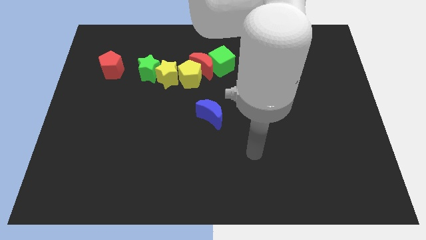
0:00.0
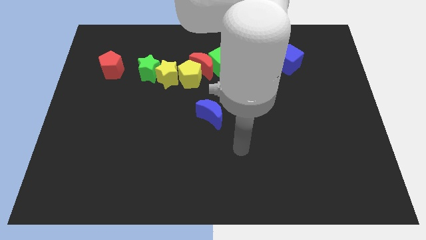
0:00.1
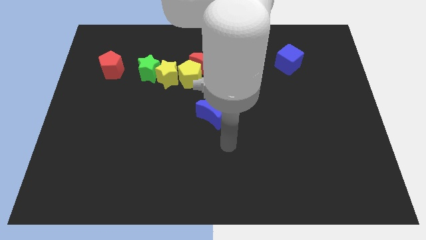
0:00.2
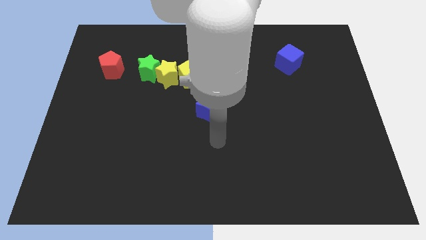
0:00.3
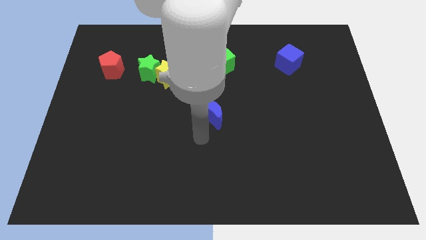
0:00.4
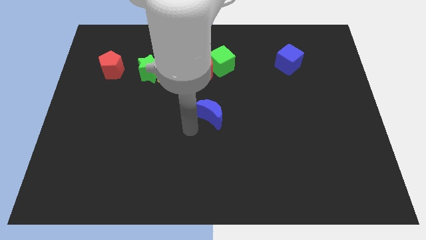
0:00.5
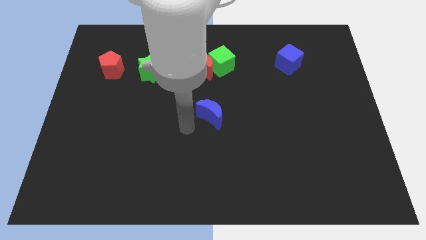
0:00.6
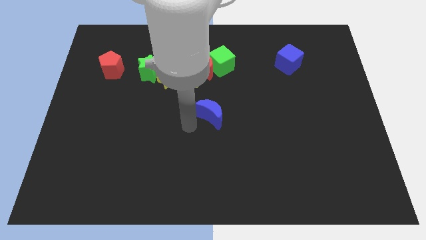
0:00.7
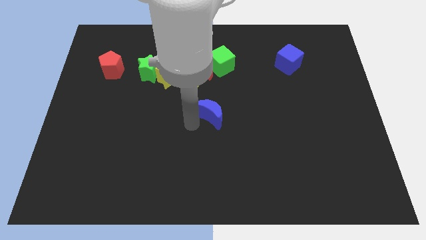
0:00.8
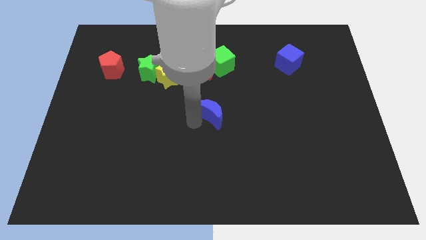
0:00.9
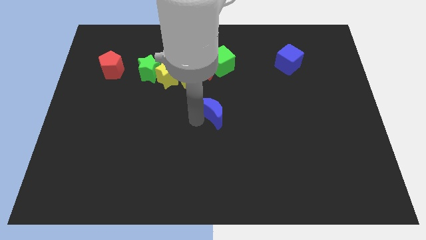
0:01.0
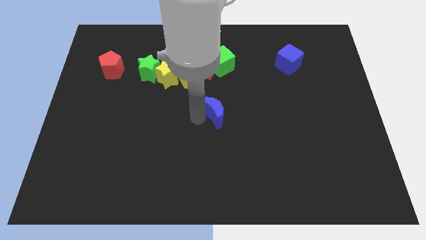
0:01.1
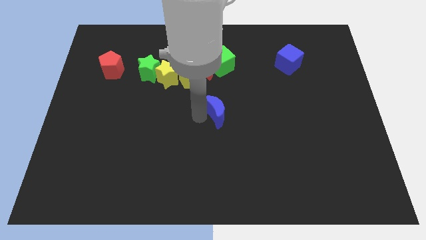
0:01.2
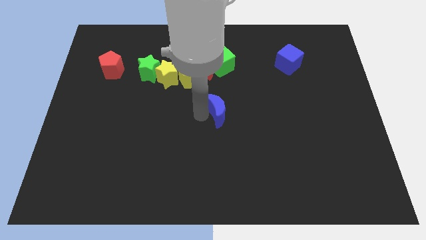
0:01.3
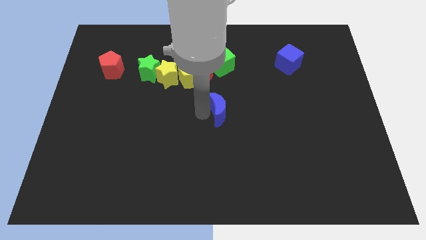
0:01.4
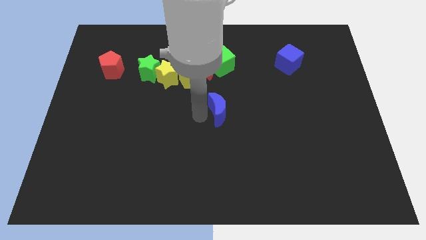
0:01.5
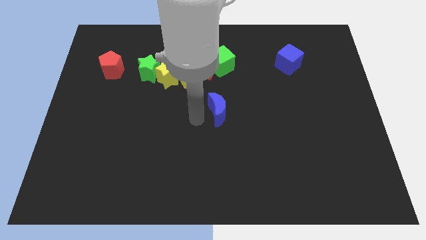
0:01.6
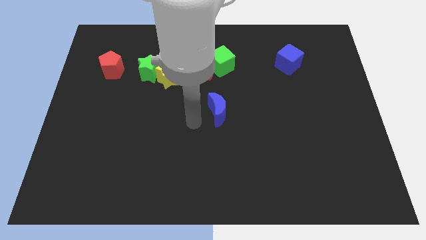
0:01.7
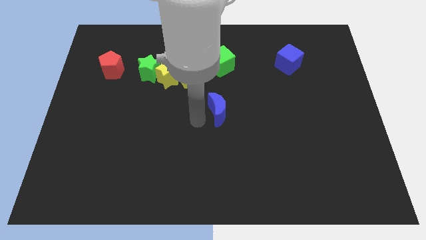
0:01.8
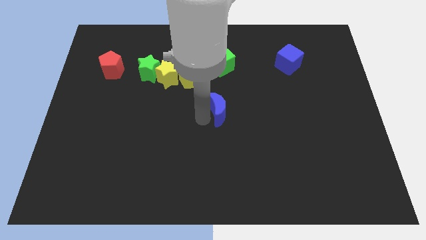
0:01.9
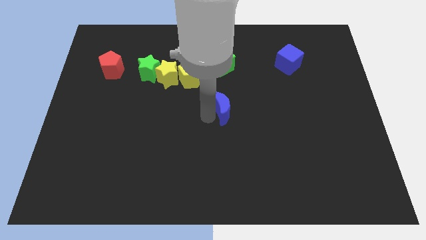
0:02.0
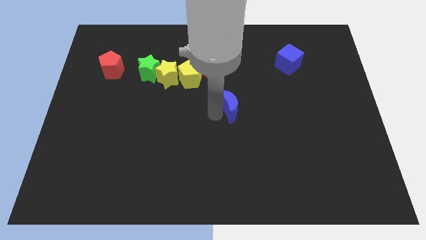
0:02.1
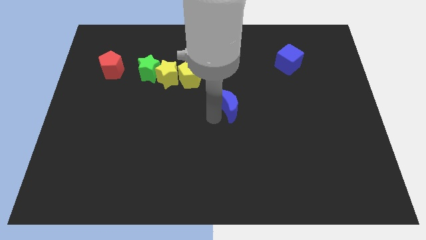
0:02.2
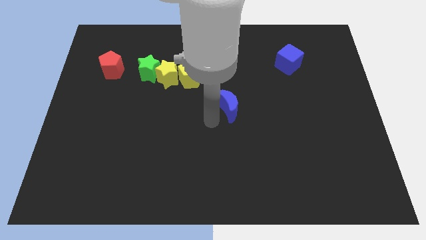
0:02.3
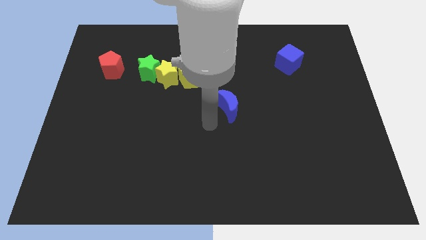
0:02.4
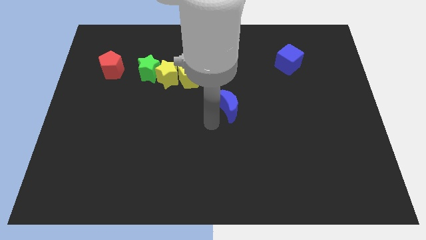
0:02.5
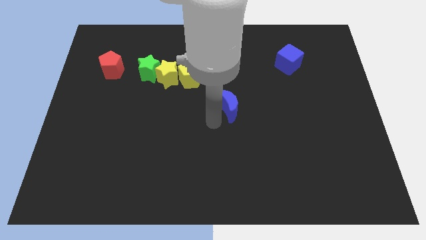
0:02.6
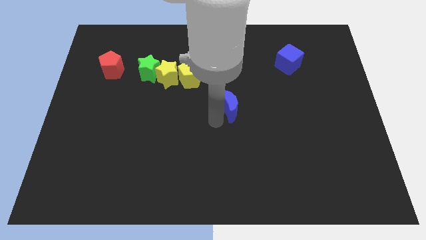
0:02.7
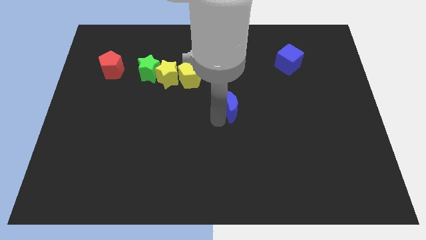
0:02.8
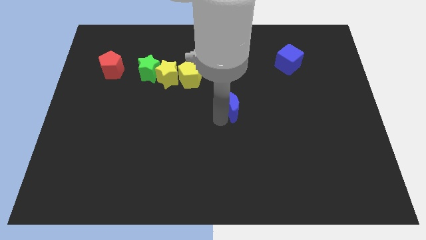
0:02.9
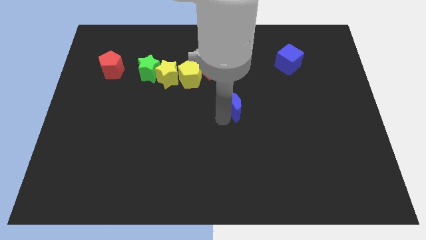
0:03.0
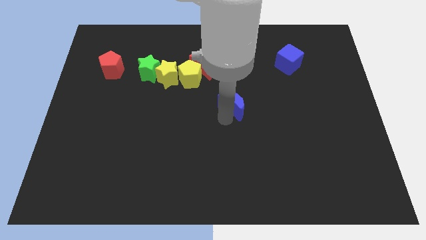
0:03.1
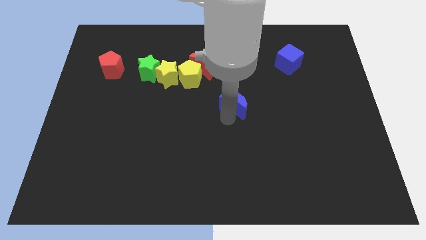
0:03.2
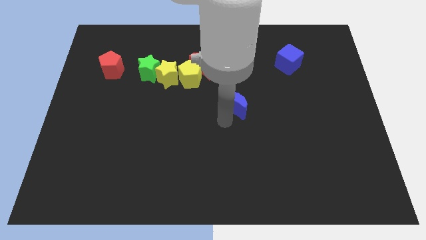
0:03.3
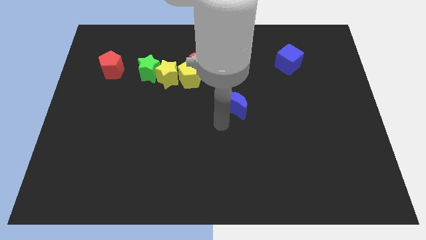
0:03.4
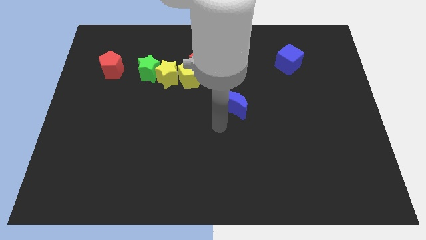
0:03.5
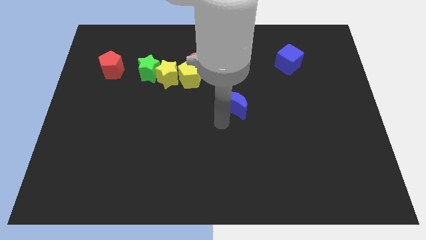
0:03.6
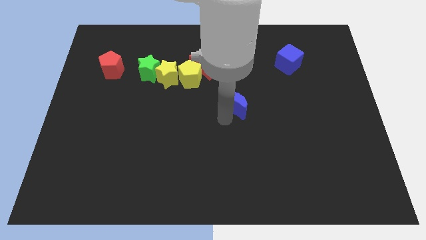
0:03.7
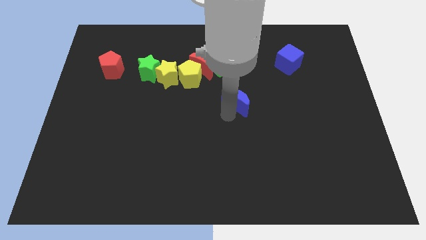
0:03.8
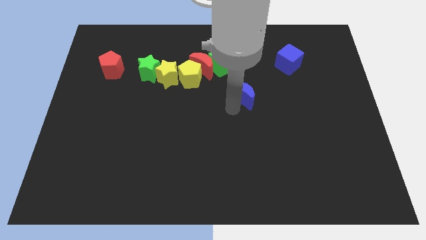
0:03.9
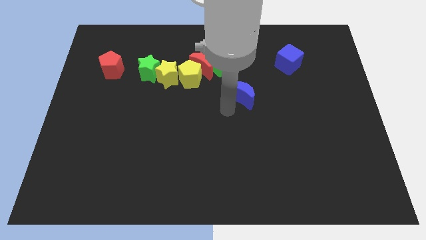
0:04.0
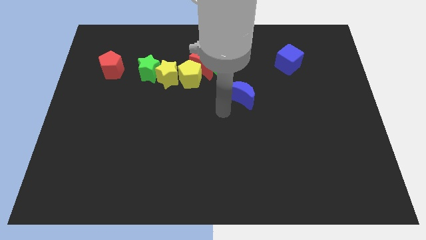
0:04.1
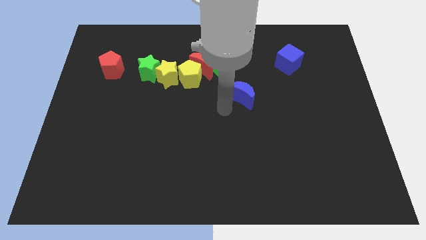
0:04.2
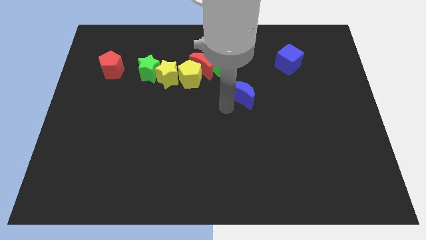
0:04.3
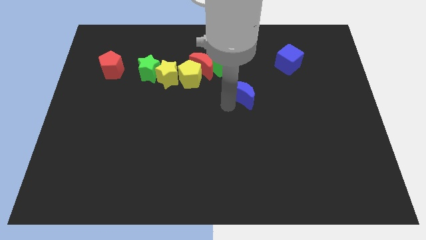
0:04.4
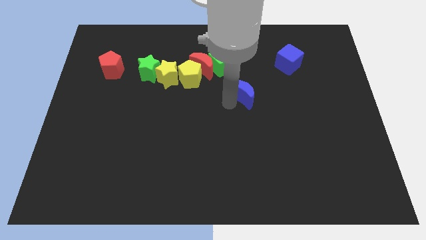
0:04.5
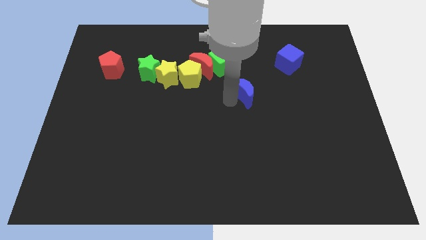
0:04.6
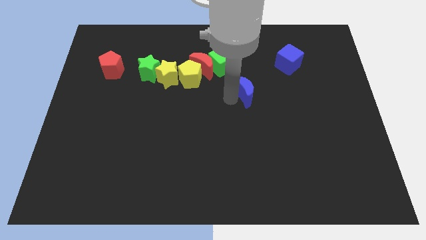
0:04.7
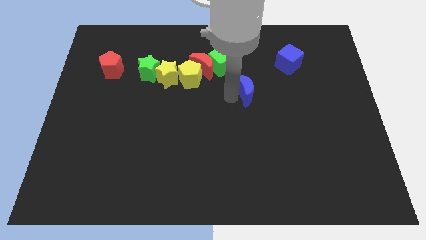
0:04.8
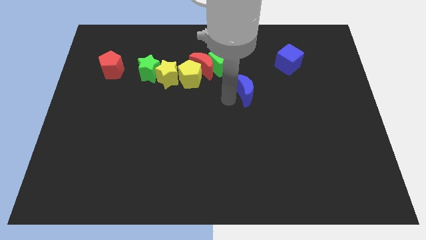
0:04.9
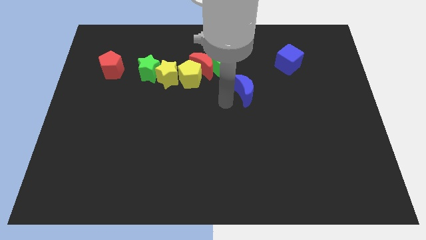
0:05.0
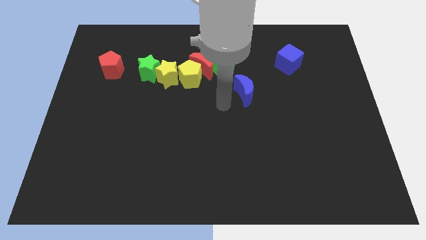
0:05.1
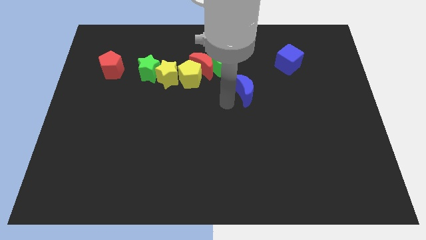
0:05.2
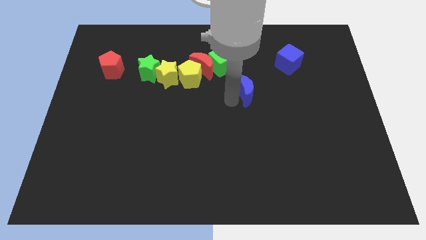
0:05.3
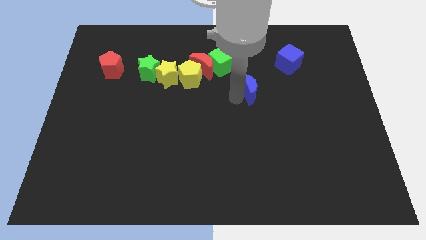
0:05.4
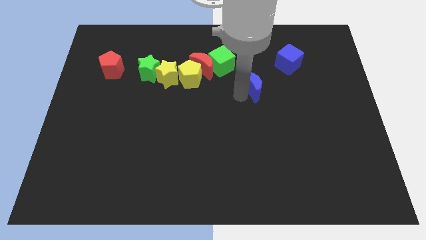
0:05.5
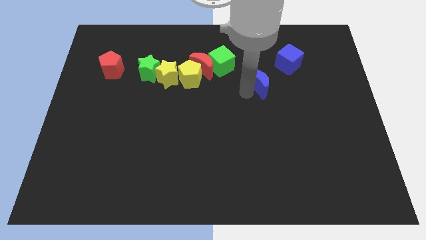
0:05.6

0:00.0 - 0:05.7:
slide the blue moon diagonally down and to the left of the blue cube

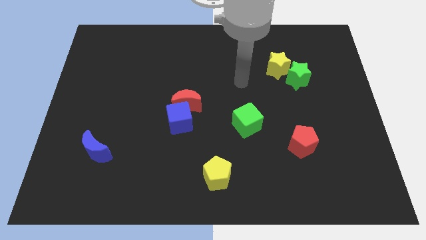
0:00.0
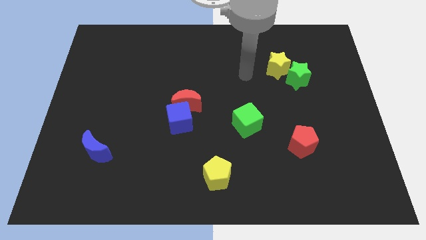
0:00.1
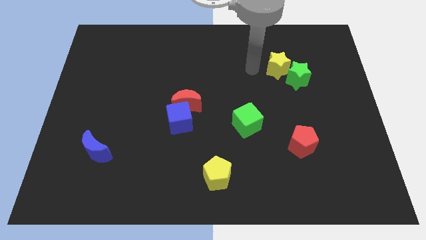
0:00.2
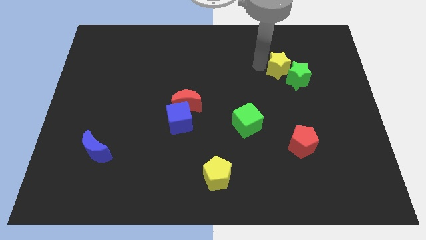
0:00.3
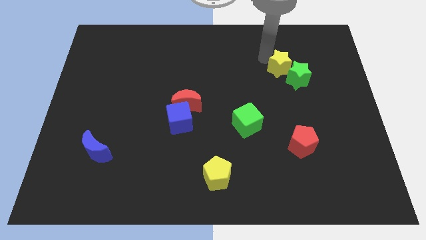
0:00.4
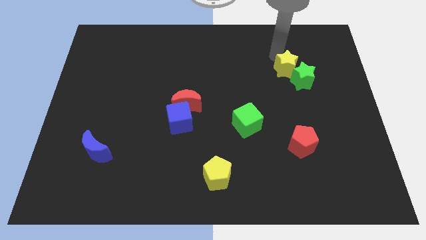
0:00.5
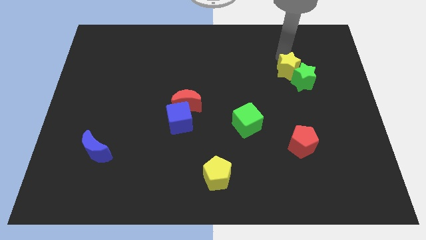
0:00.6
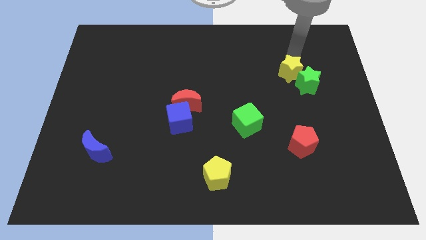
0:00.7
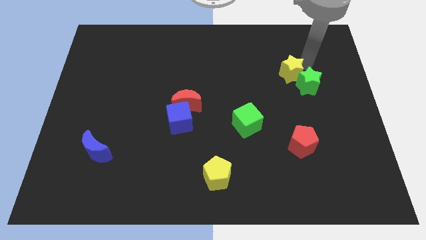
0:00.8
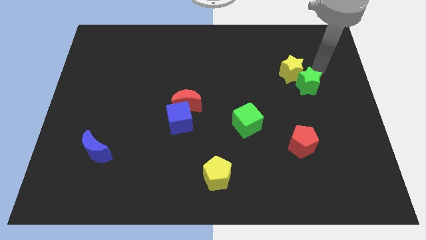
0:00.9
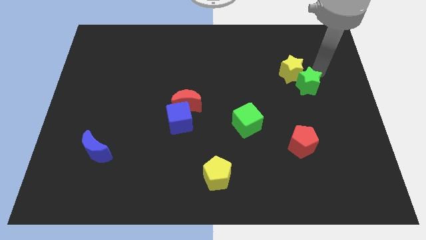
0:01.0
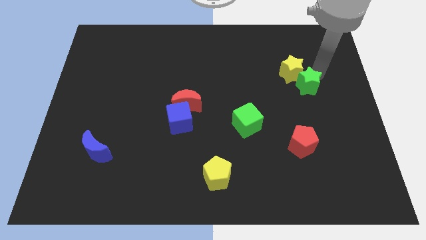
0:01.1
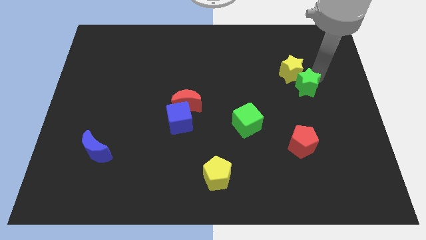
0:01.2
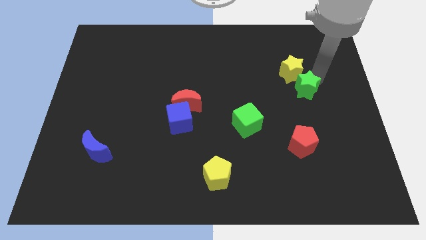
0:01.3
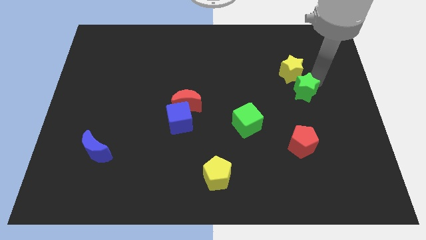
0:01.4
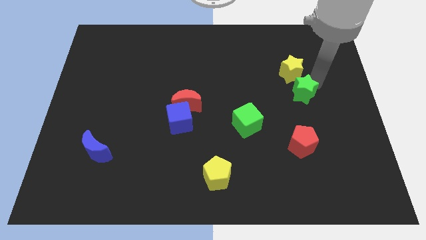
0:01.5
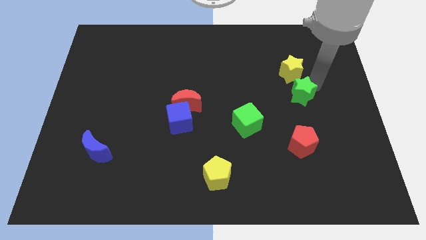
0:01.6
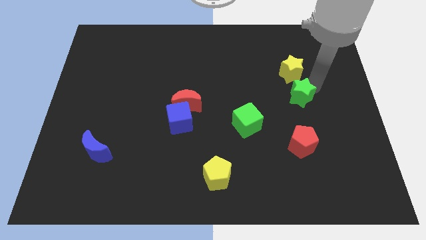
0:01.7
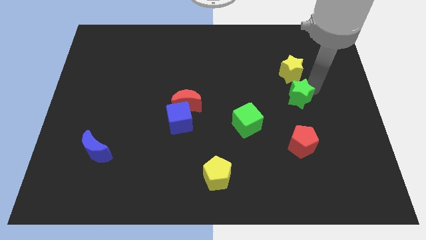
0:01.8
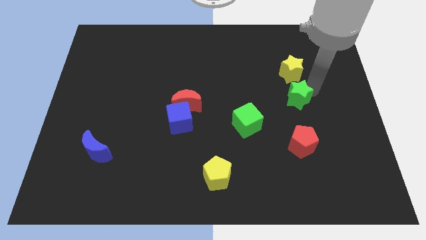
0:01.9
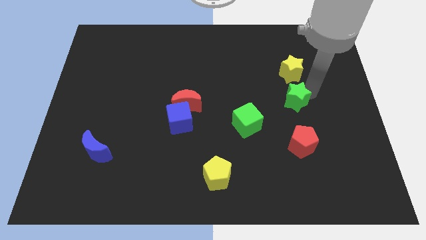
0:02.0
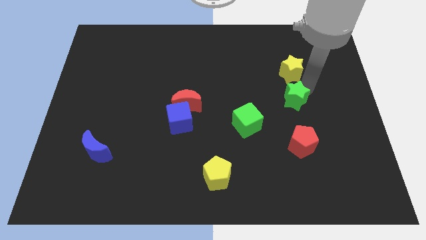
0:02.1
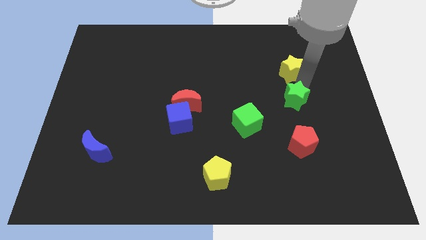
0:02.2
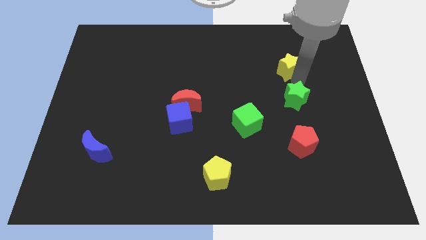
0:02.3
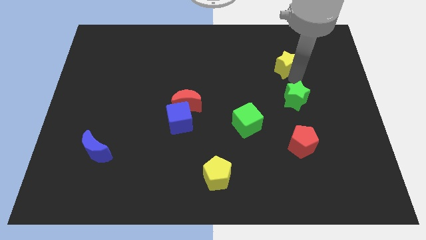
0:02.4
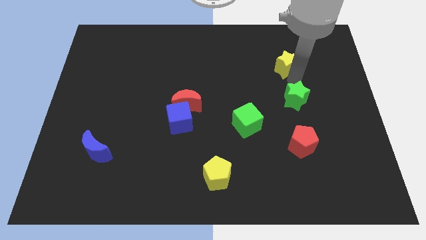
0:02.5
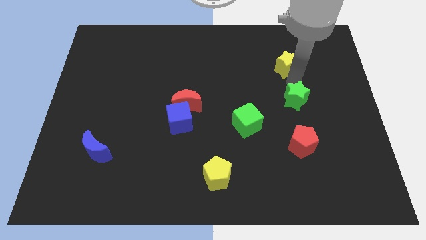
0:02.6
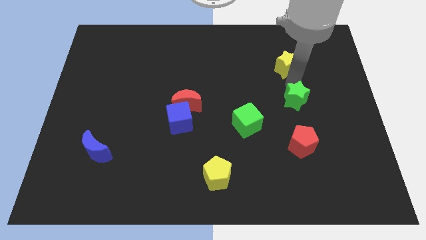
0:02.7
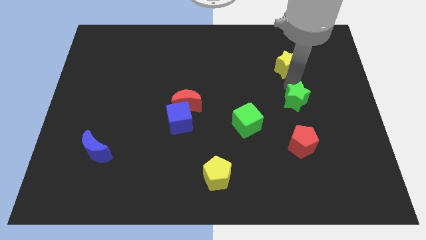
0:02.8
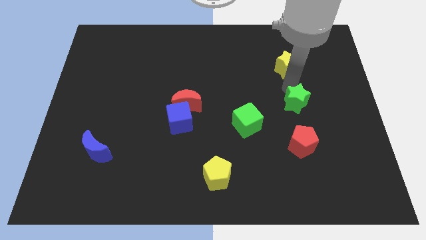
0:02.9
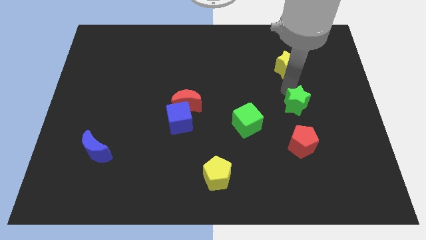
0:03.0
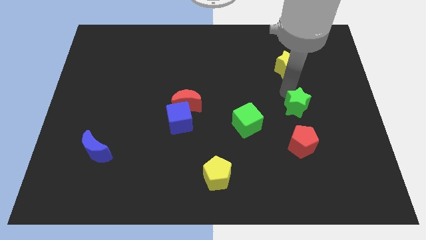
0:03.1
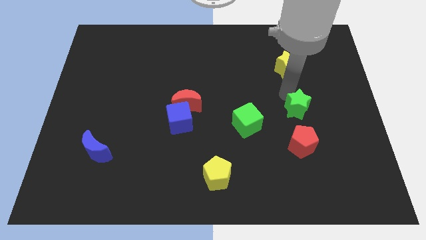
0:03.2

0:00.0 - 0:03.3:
put the green star just right of the green cube
